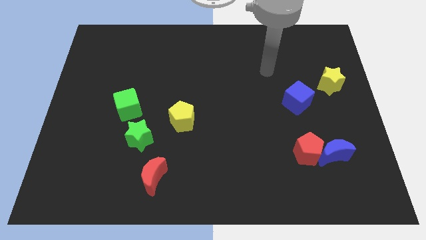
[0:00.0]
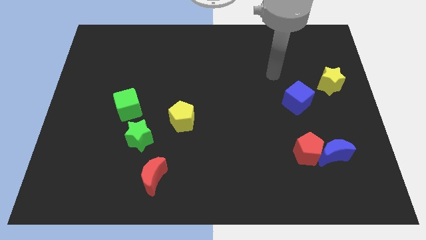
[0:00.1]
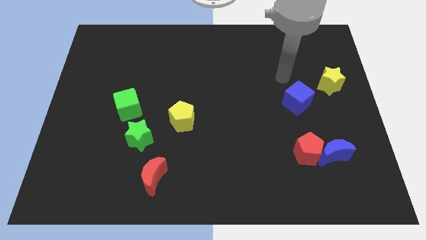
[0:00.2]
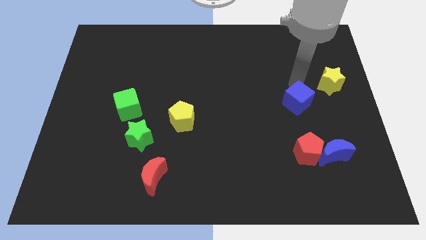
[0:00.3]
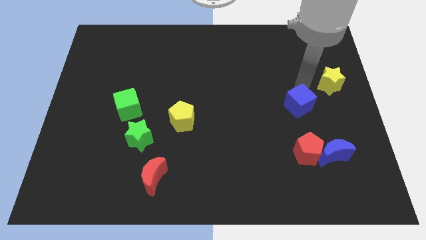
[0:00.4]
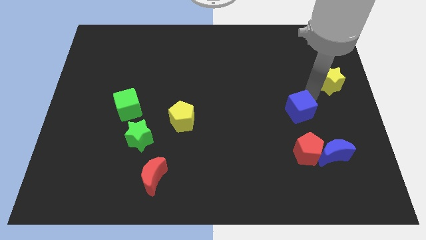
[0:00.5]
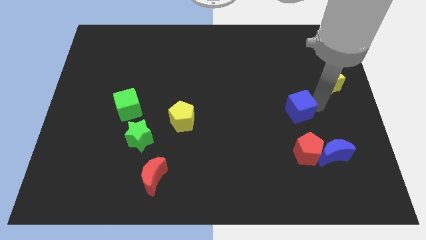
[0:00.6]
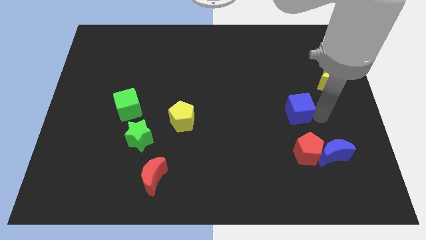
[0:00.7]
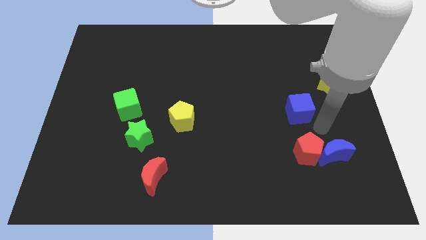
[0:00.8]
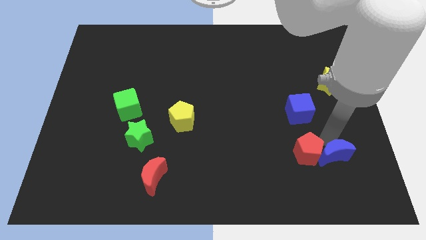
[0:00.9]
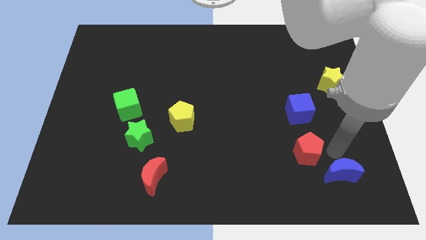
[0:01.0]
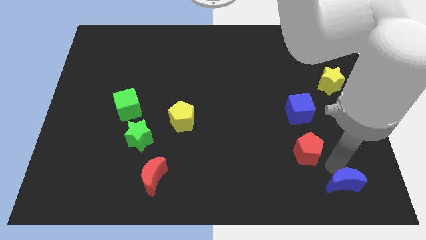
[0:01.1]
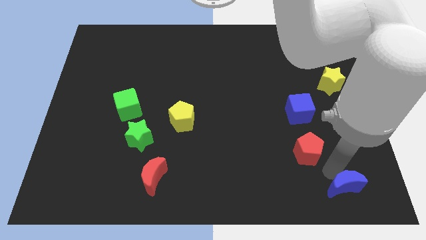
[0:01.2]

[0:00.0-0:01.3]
move the red pentagon away from the blue moon

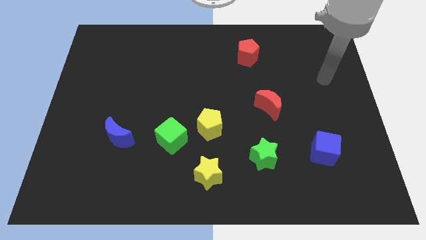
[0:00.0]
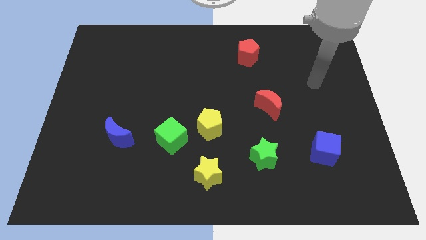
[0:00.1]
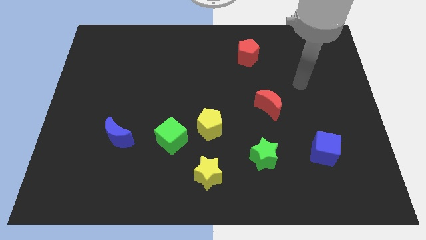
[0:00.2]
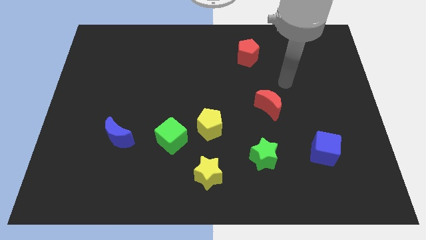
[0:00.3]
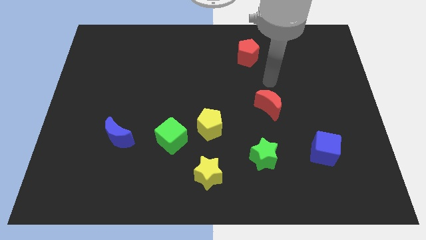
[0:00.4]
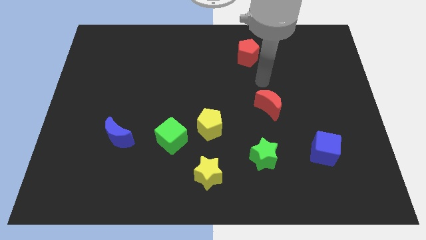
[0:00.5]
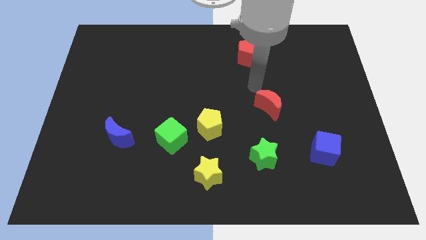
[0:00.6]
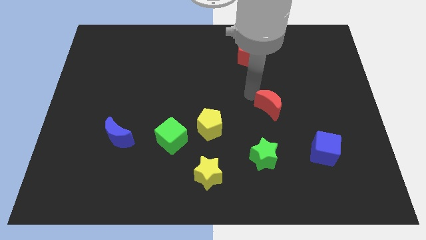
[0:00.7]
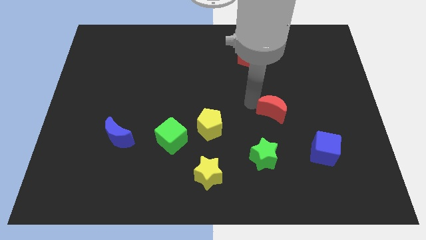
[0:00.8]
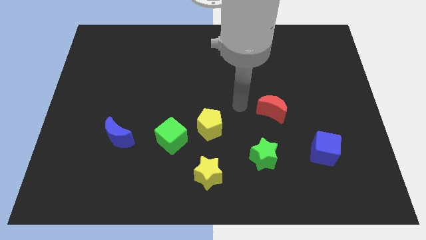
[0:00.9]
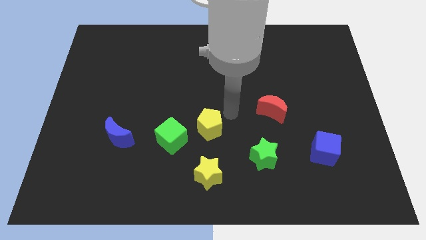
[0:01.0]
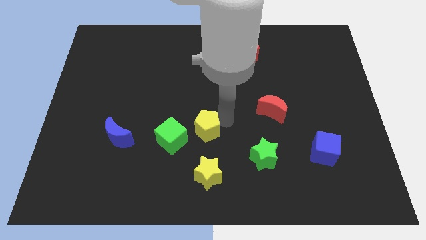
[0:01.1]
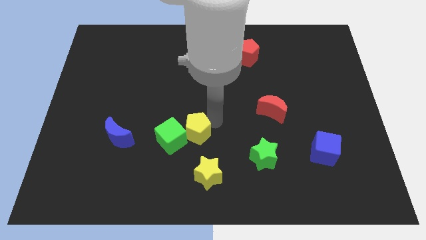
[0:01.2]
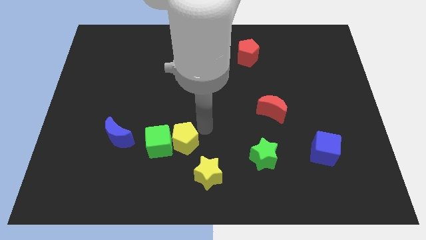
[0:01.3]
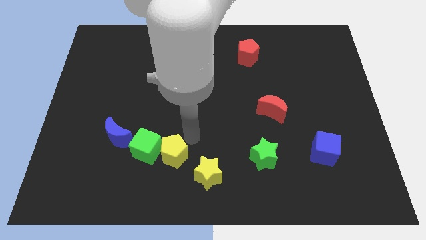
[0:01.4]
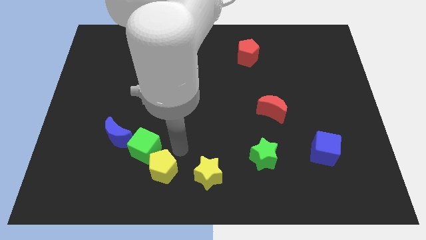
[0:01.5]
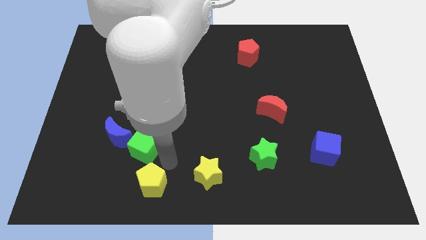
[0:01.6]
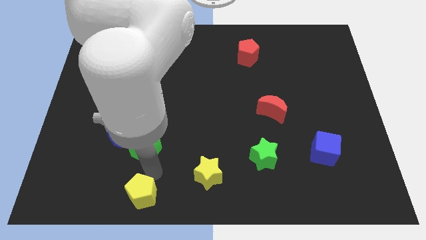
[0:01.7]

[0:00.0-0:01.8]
separate the green cube from the yellow pentagon

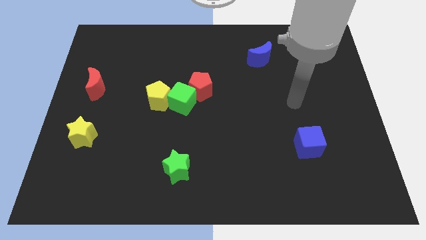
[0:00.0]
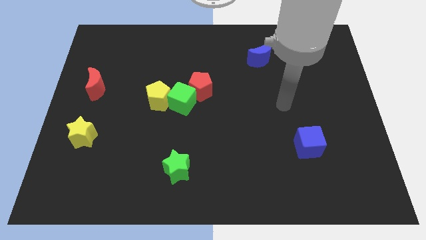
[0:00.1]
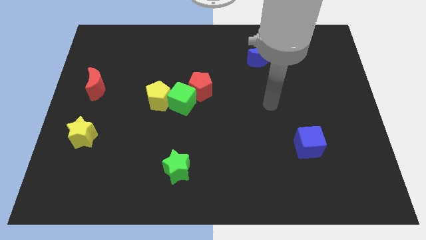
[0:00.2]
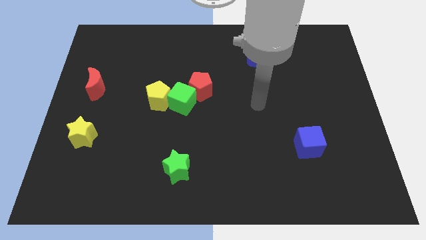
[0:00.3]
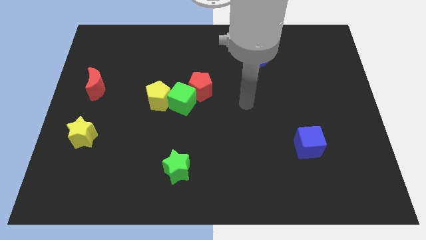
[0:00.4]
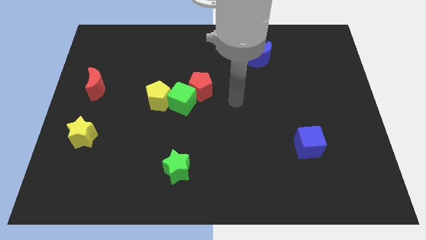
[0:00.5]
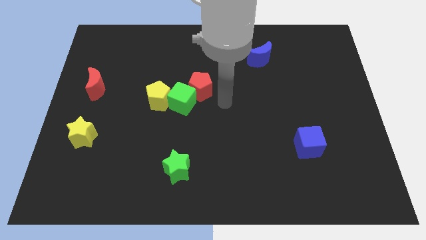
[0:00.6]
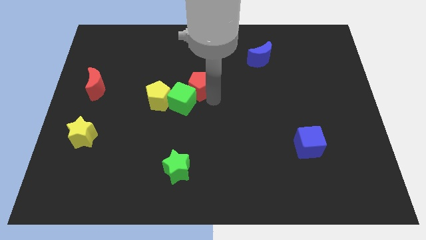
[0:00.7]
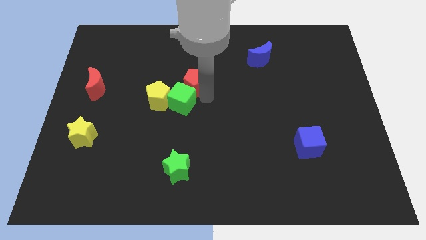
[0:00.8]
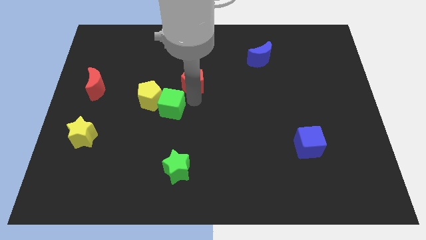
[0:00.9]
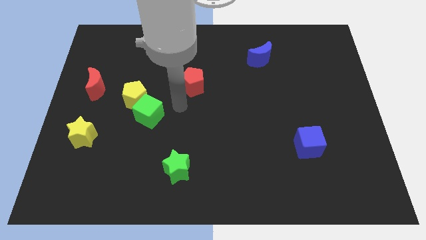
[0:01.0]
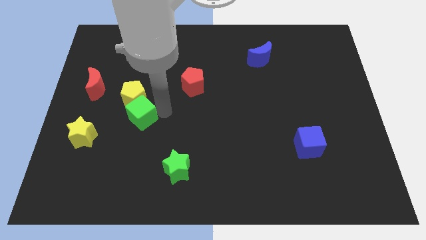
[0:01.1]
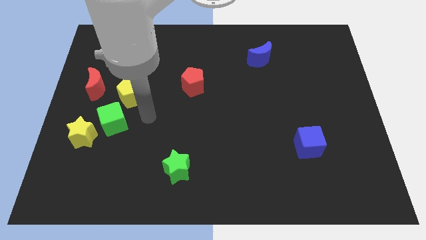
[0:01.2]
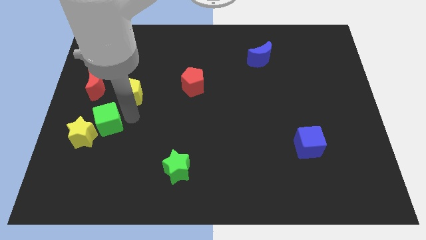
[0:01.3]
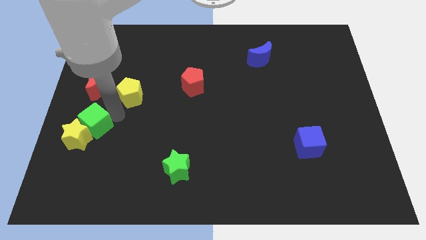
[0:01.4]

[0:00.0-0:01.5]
separate the yellow pentagon from the green cube

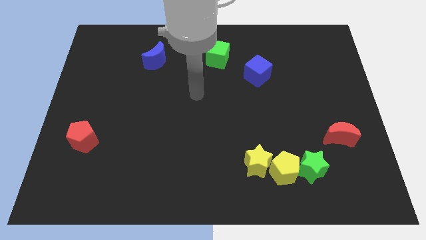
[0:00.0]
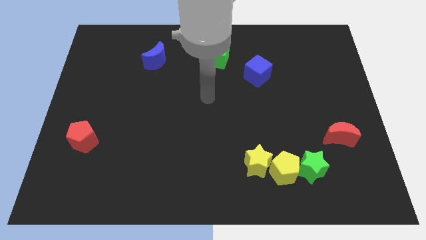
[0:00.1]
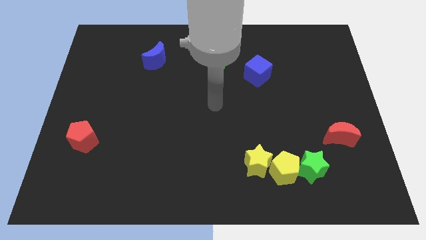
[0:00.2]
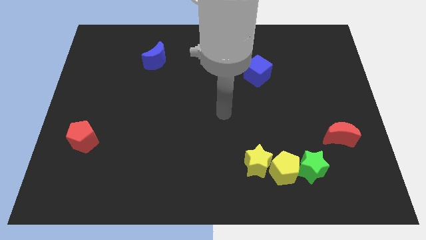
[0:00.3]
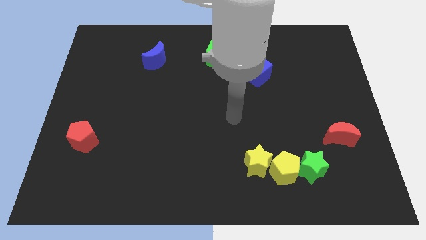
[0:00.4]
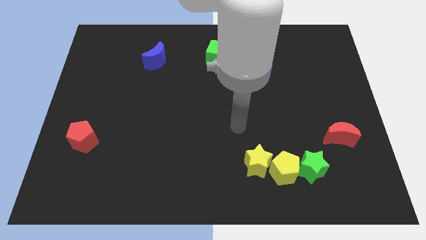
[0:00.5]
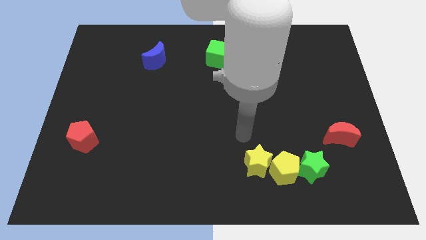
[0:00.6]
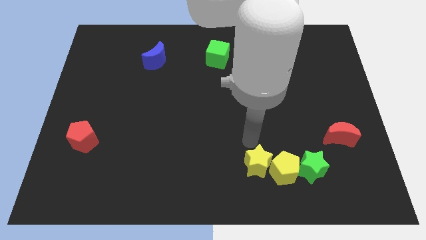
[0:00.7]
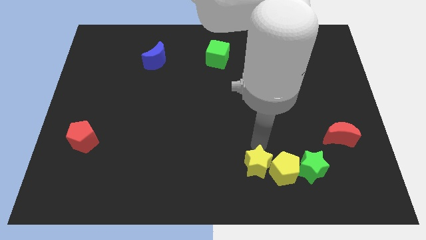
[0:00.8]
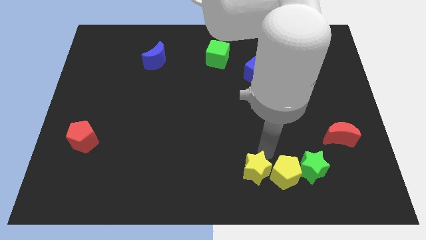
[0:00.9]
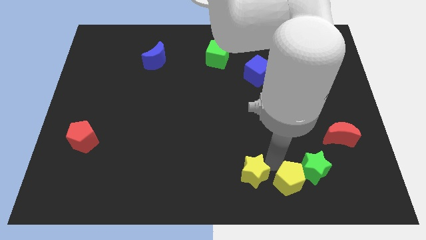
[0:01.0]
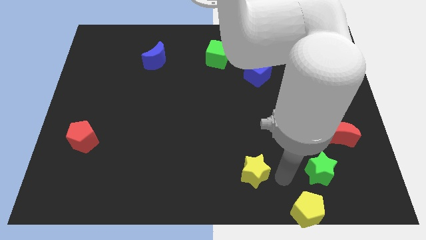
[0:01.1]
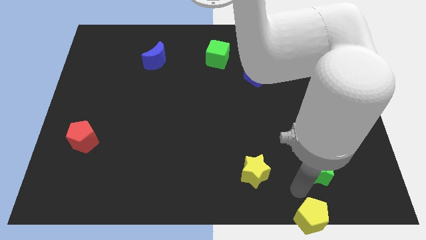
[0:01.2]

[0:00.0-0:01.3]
move the green star away from the yellow pentagon

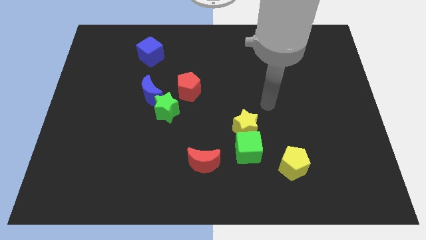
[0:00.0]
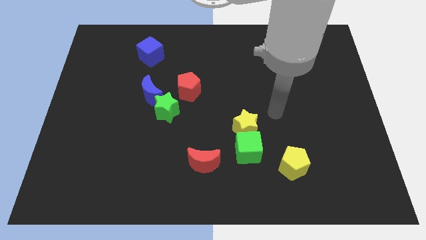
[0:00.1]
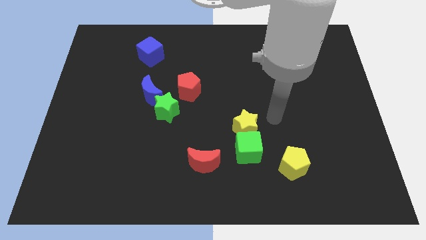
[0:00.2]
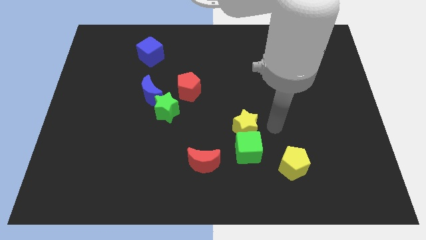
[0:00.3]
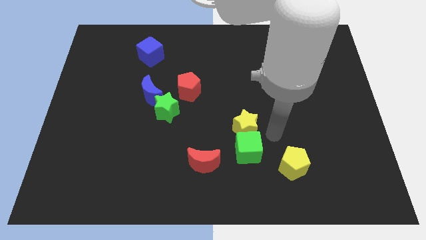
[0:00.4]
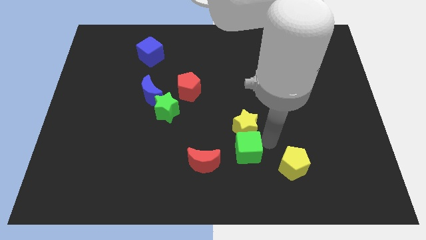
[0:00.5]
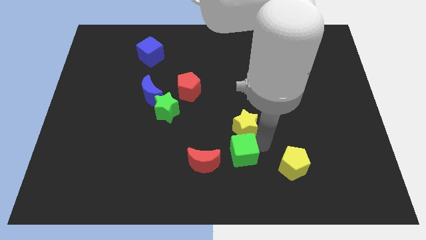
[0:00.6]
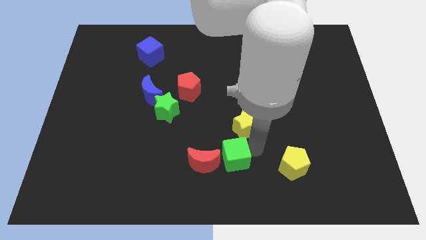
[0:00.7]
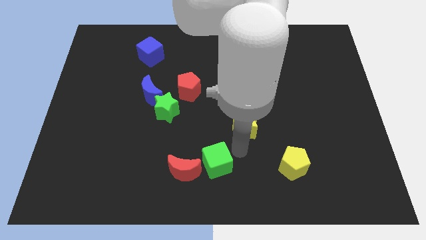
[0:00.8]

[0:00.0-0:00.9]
separate the yellow star from the green cube

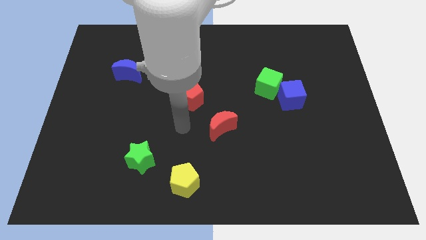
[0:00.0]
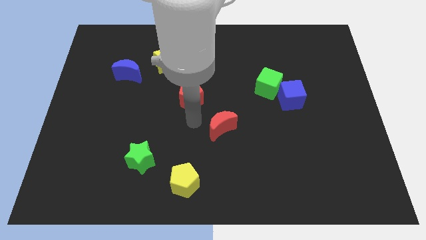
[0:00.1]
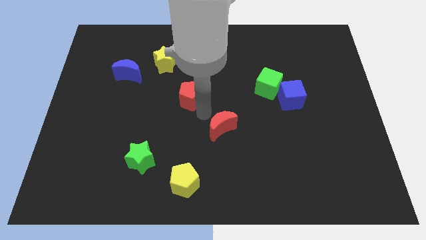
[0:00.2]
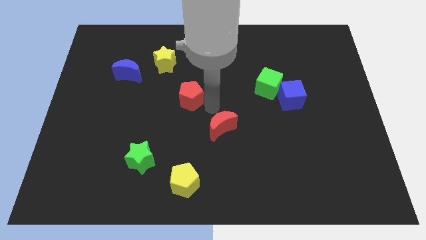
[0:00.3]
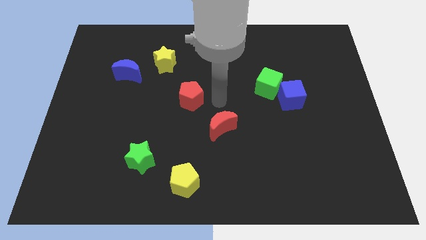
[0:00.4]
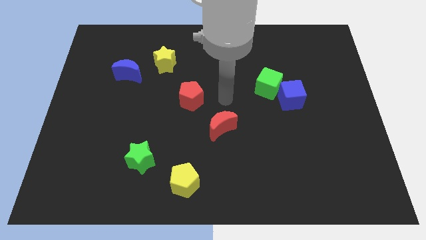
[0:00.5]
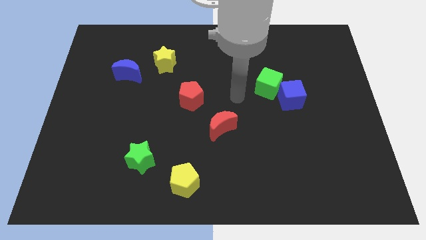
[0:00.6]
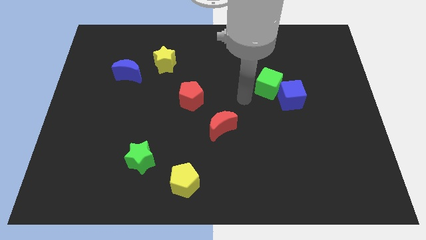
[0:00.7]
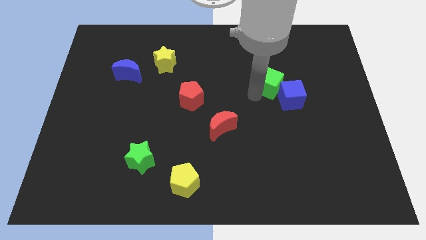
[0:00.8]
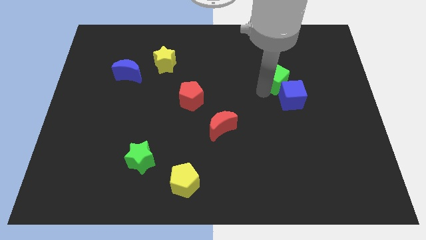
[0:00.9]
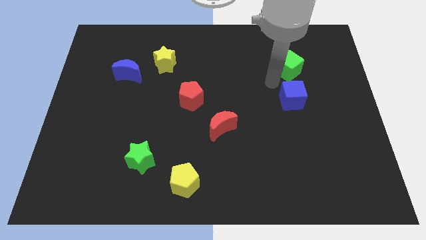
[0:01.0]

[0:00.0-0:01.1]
pull the blue cube apart from the green cube

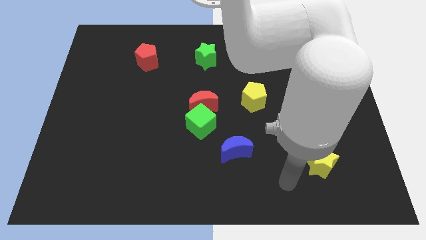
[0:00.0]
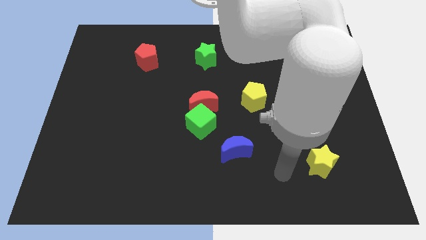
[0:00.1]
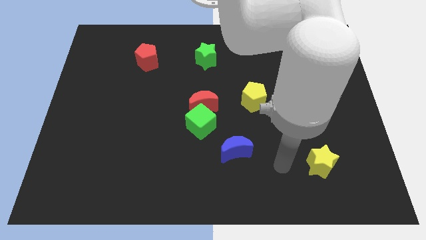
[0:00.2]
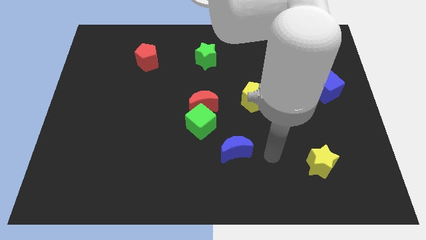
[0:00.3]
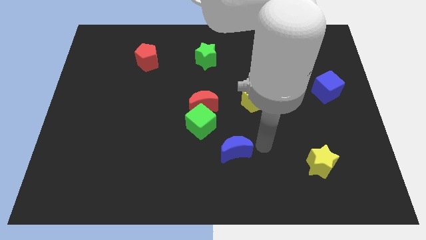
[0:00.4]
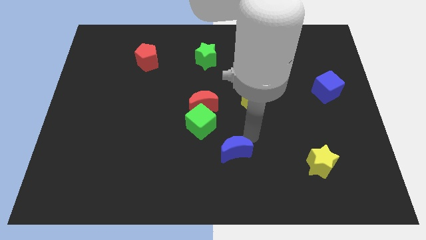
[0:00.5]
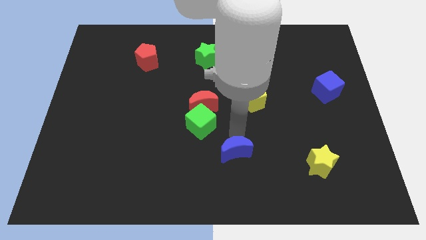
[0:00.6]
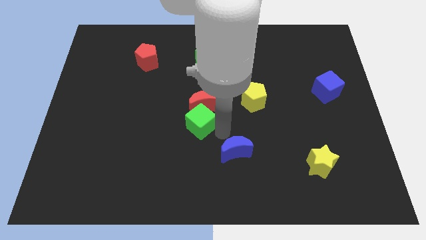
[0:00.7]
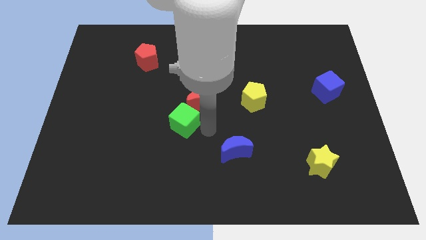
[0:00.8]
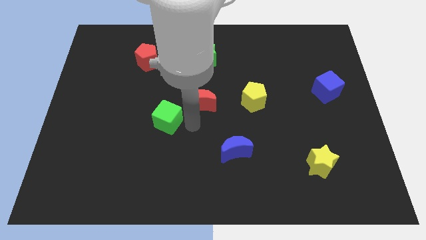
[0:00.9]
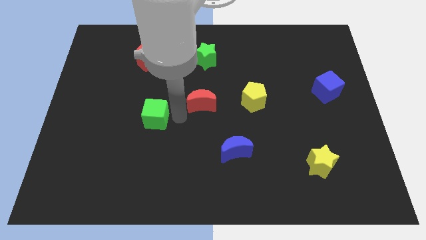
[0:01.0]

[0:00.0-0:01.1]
separate the red moon from the green cube

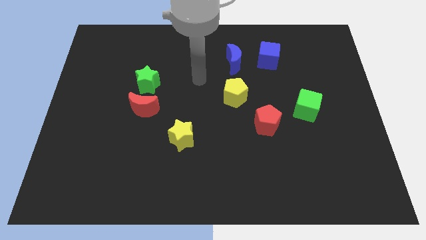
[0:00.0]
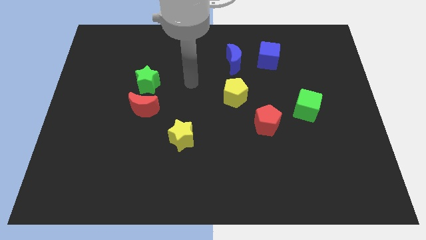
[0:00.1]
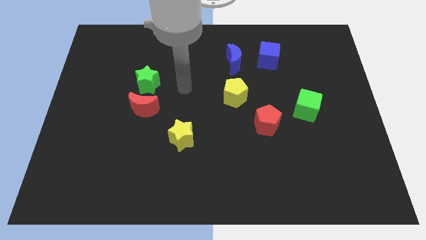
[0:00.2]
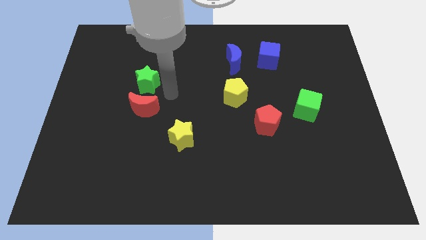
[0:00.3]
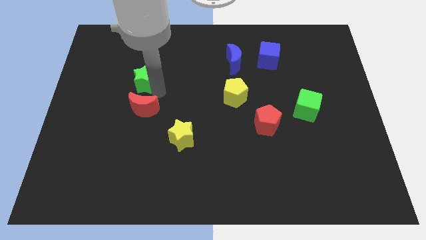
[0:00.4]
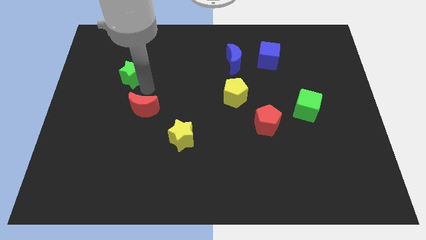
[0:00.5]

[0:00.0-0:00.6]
pull the red moon apart from the green star
